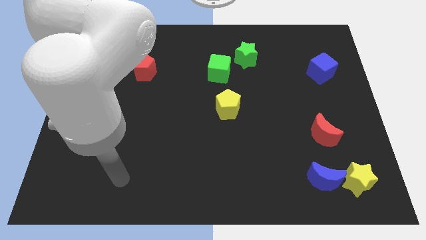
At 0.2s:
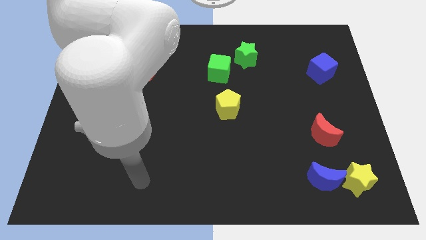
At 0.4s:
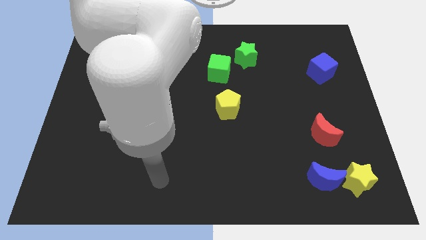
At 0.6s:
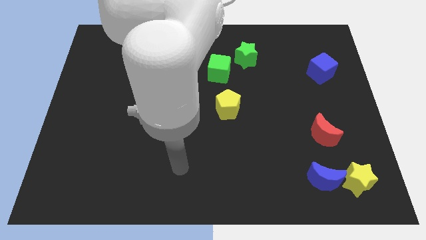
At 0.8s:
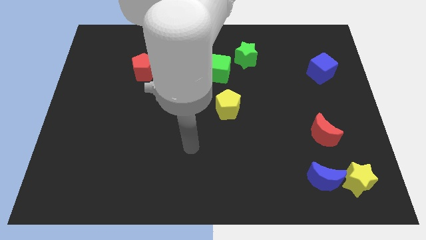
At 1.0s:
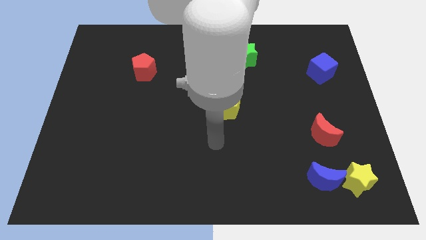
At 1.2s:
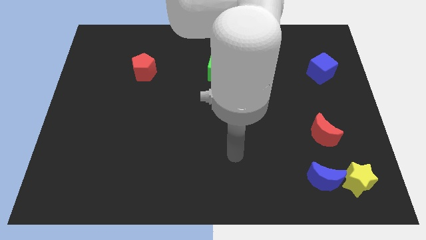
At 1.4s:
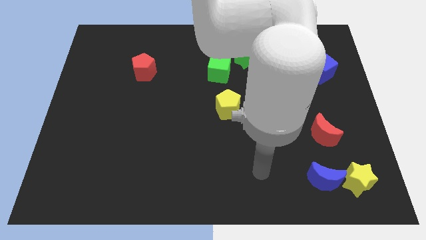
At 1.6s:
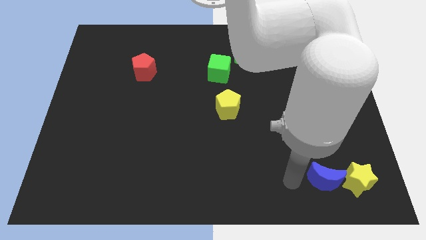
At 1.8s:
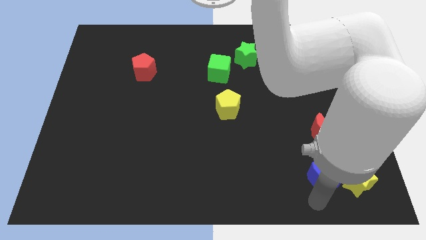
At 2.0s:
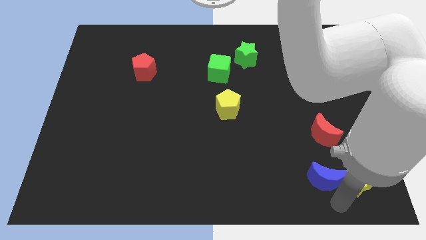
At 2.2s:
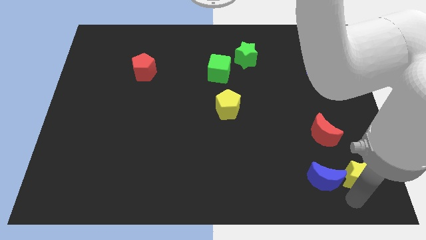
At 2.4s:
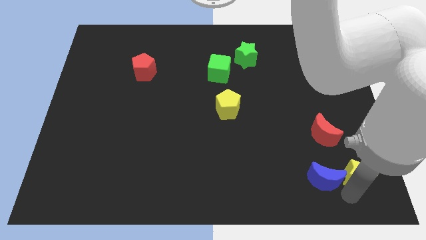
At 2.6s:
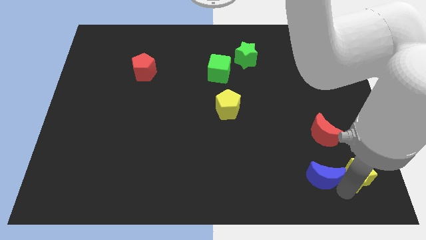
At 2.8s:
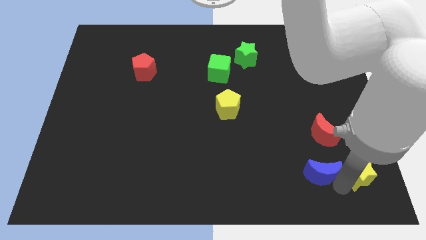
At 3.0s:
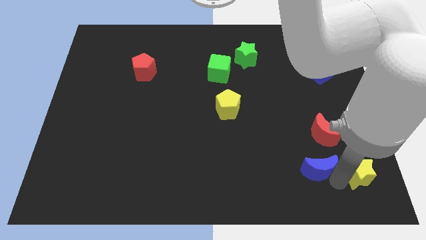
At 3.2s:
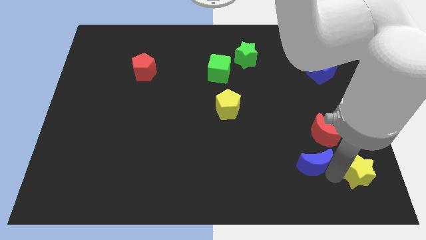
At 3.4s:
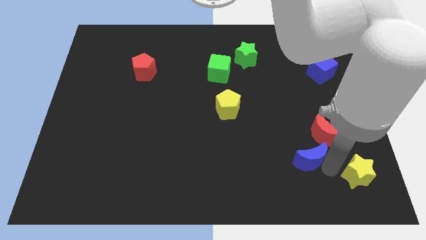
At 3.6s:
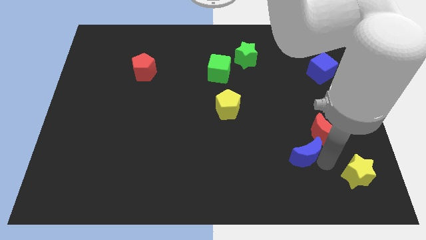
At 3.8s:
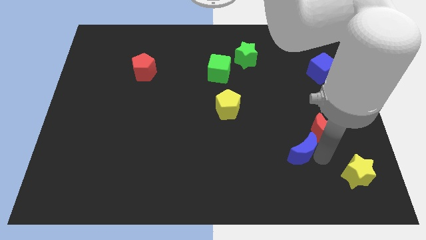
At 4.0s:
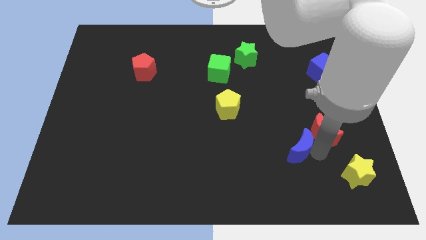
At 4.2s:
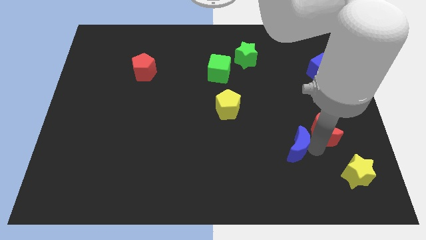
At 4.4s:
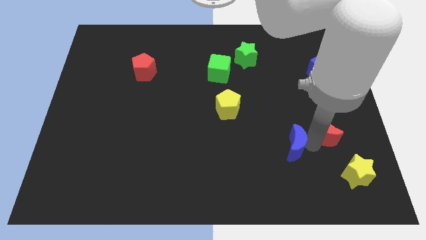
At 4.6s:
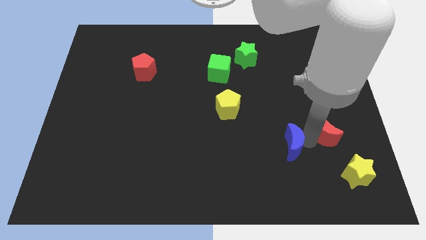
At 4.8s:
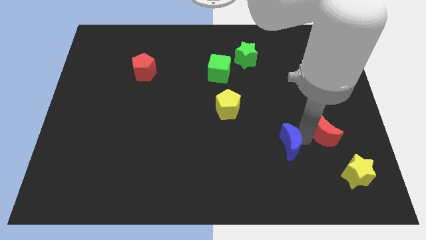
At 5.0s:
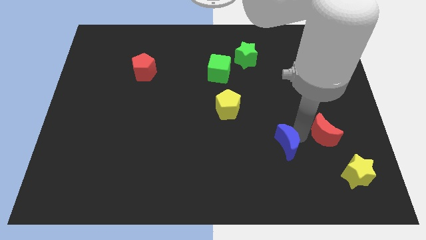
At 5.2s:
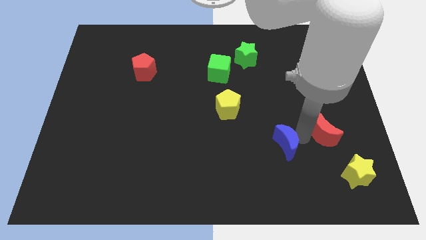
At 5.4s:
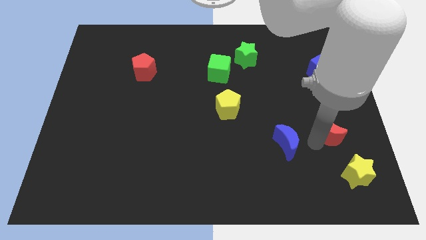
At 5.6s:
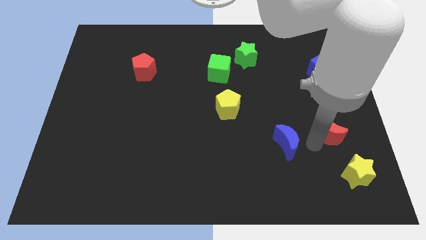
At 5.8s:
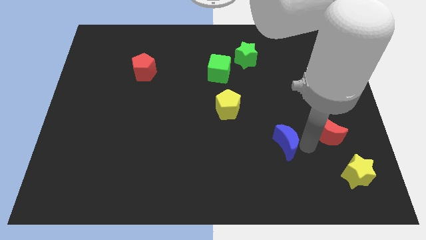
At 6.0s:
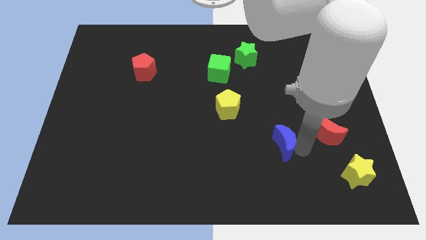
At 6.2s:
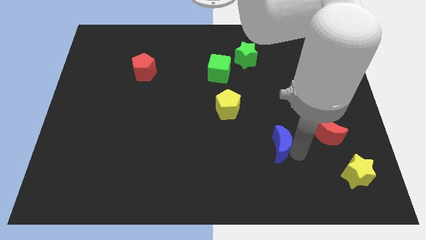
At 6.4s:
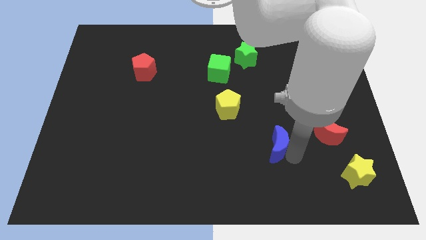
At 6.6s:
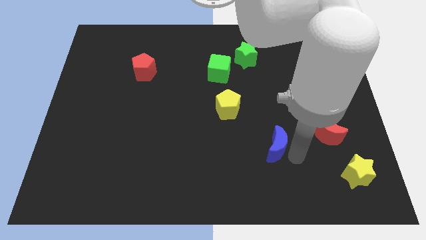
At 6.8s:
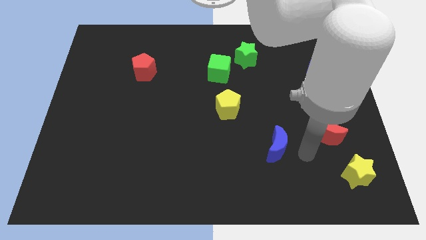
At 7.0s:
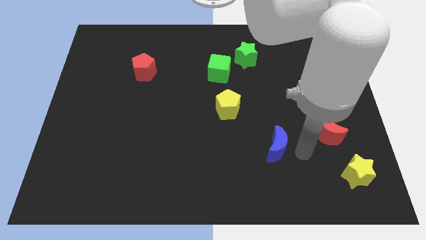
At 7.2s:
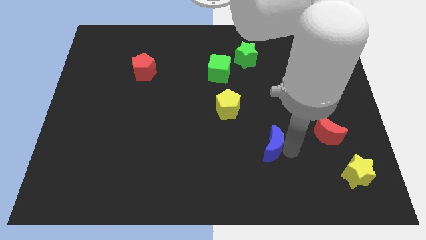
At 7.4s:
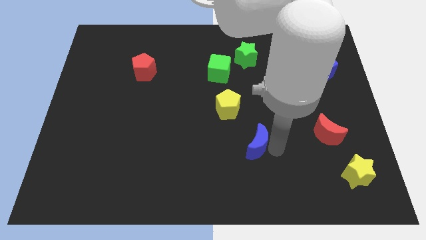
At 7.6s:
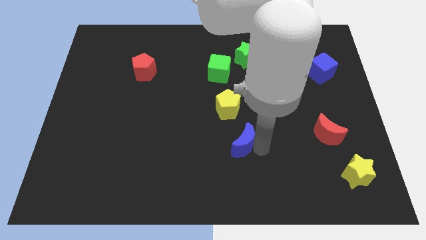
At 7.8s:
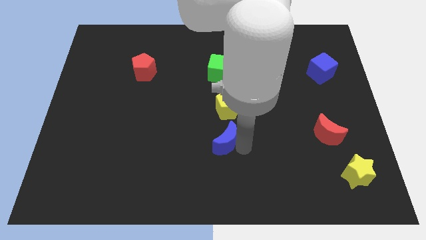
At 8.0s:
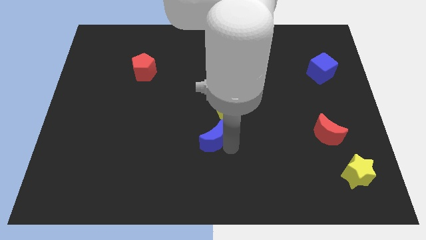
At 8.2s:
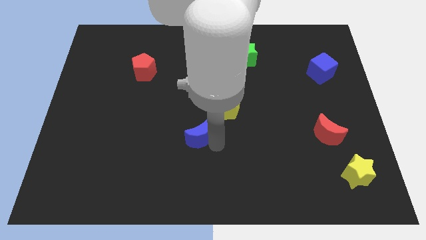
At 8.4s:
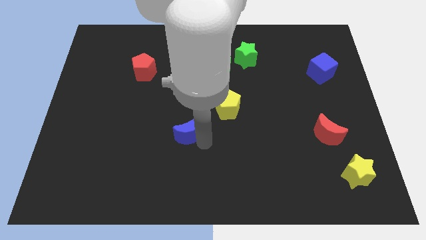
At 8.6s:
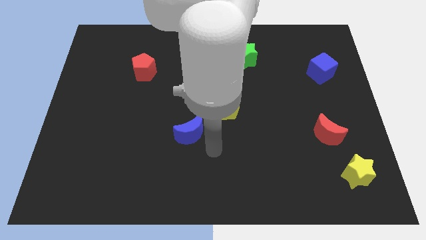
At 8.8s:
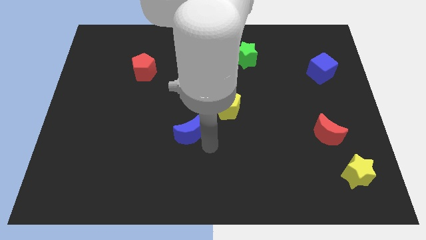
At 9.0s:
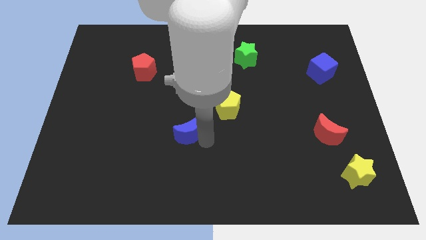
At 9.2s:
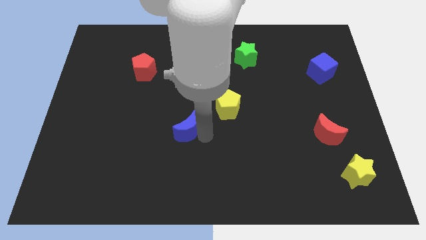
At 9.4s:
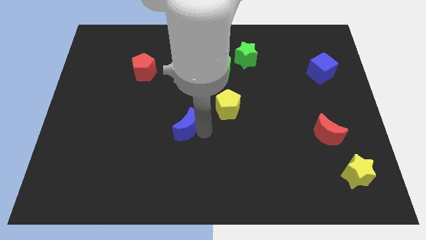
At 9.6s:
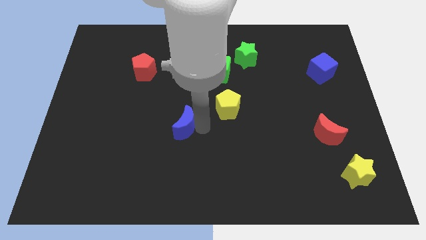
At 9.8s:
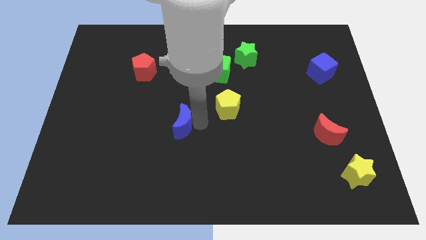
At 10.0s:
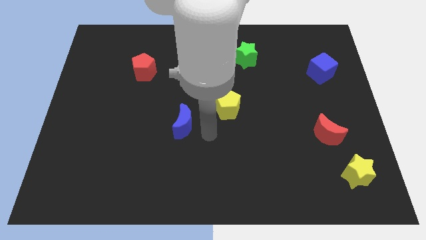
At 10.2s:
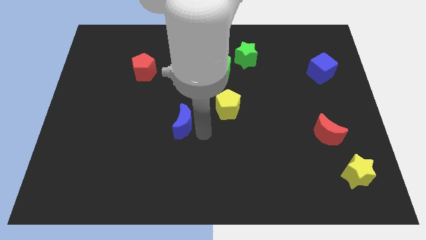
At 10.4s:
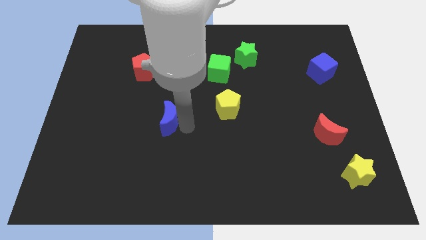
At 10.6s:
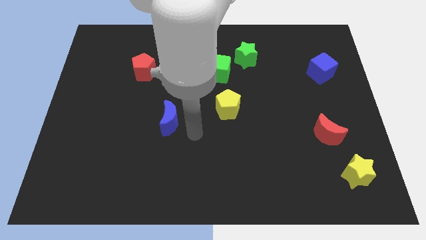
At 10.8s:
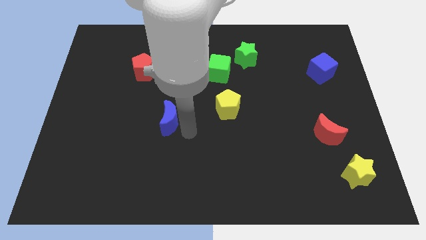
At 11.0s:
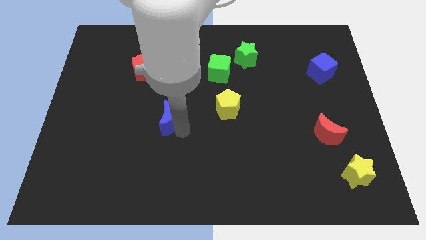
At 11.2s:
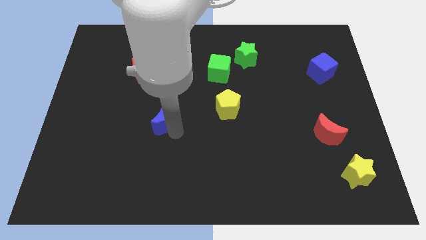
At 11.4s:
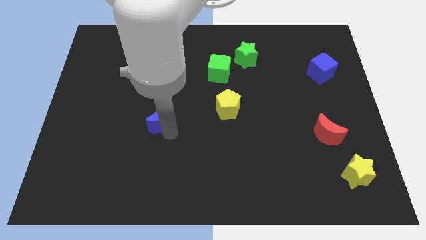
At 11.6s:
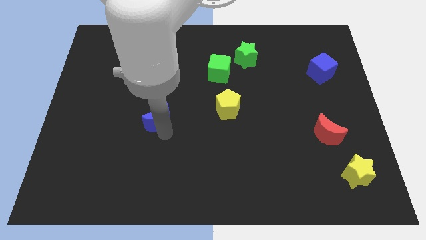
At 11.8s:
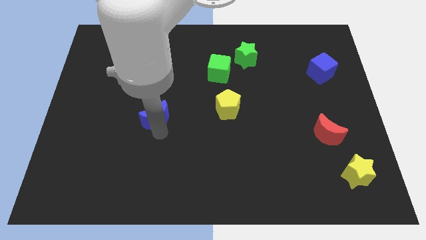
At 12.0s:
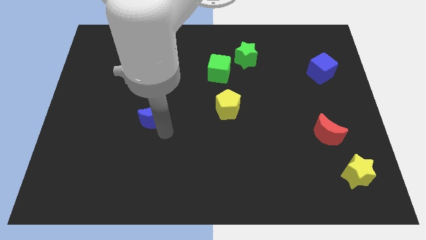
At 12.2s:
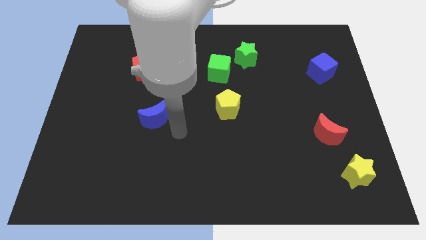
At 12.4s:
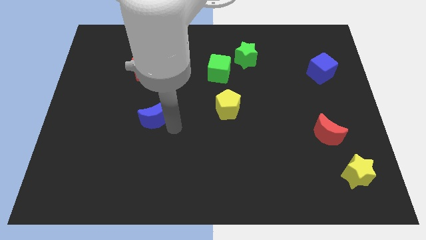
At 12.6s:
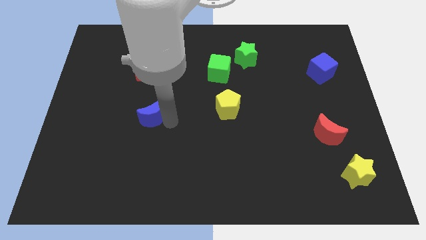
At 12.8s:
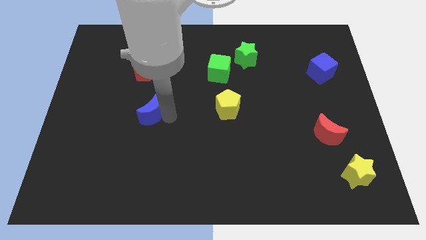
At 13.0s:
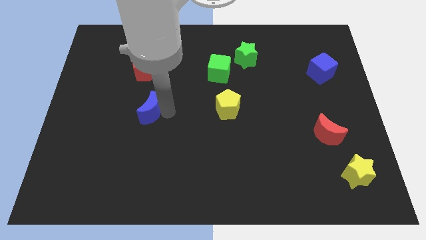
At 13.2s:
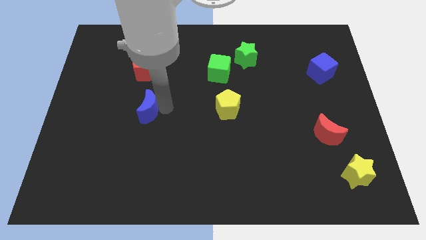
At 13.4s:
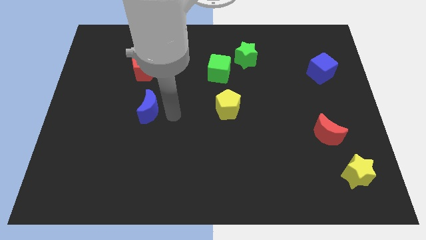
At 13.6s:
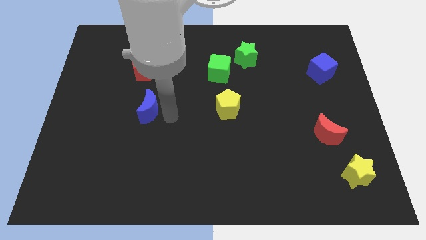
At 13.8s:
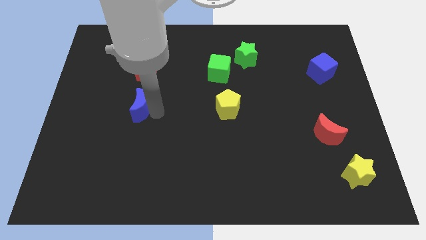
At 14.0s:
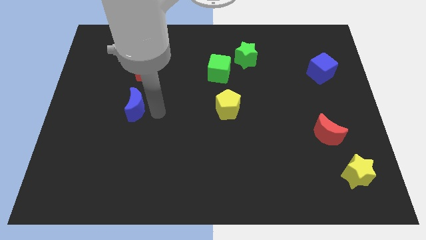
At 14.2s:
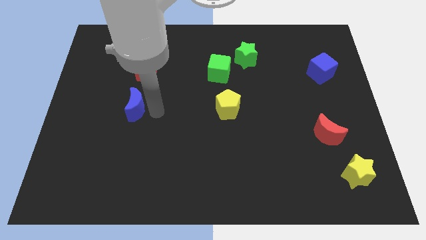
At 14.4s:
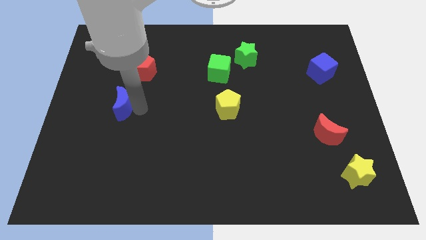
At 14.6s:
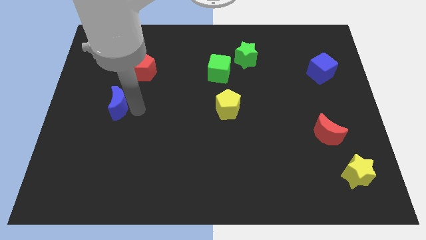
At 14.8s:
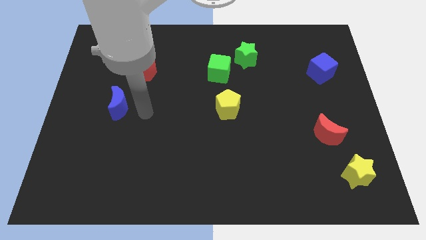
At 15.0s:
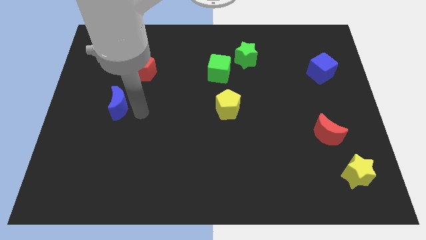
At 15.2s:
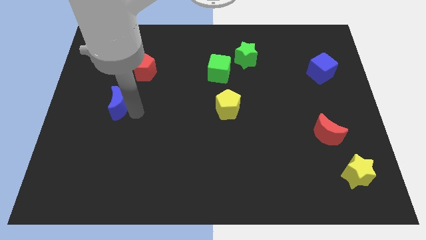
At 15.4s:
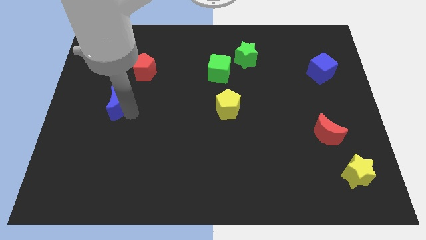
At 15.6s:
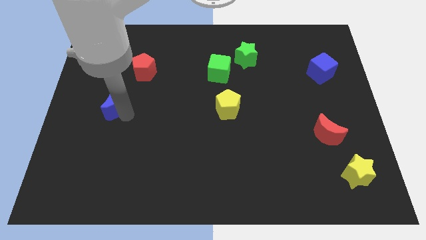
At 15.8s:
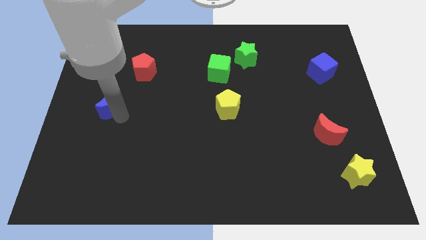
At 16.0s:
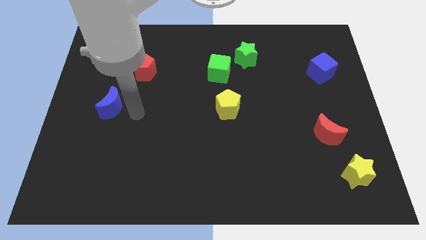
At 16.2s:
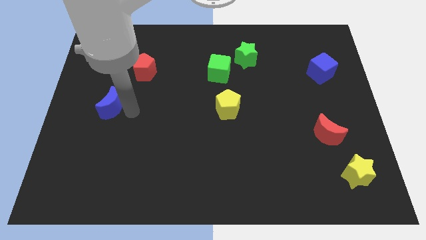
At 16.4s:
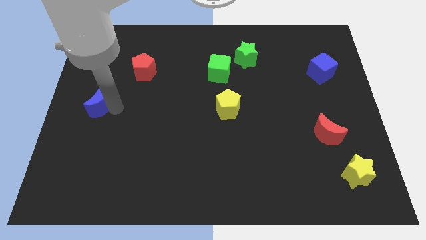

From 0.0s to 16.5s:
move the blue moon to the left side
